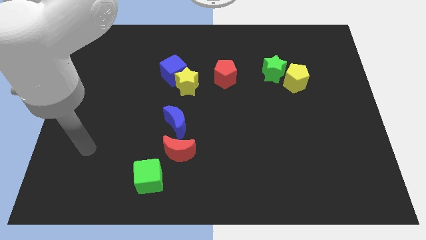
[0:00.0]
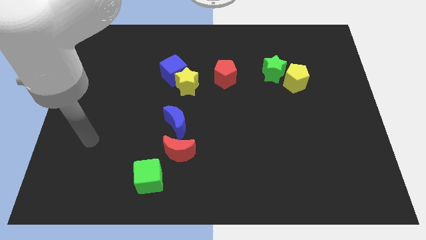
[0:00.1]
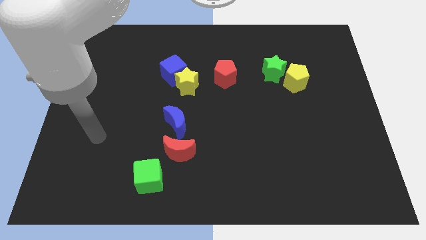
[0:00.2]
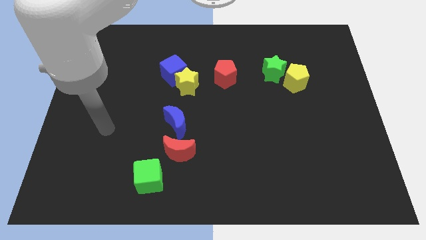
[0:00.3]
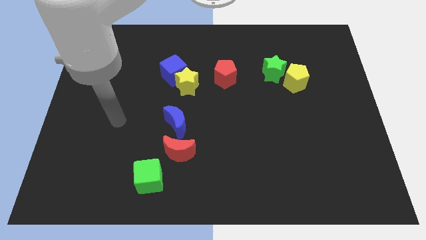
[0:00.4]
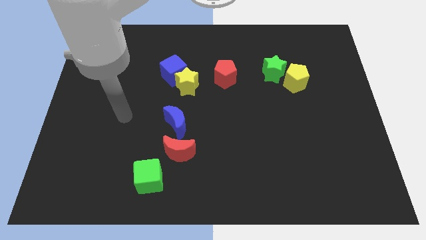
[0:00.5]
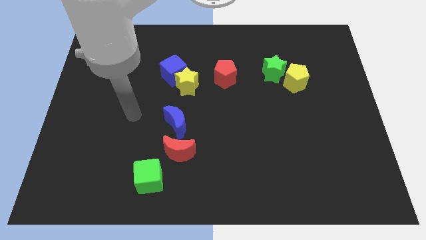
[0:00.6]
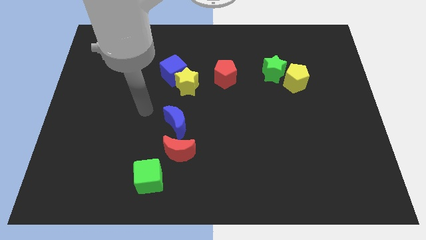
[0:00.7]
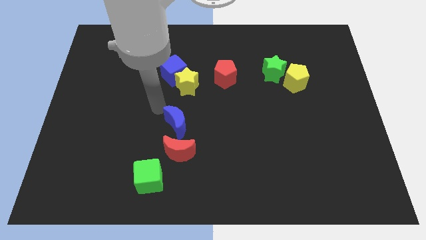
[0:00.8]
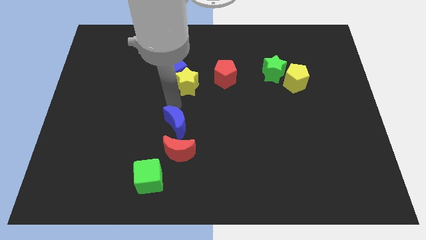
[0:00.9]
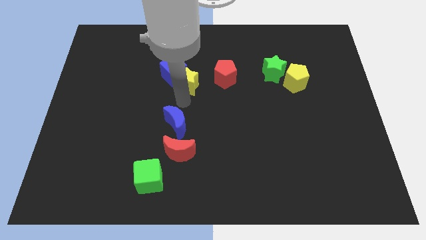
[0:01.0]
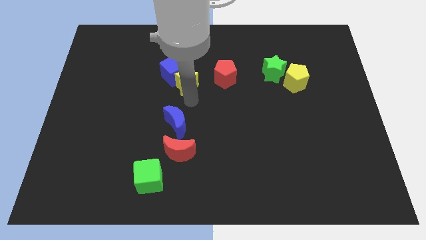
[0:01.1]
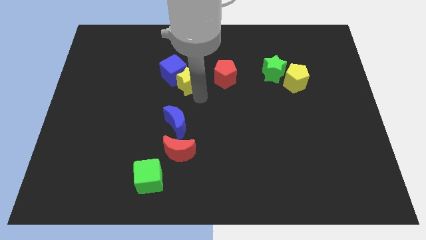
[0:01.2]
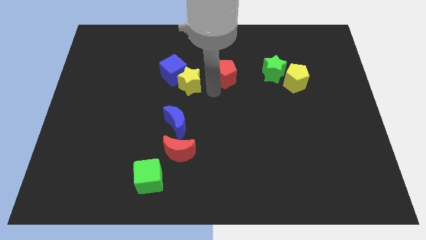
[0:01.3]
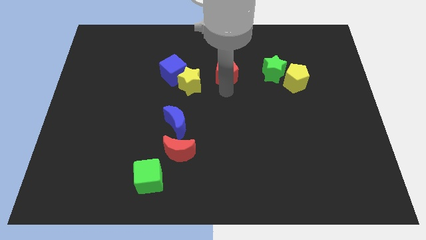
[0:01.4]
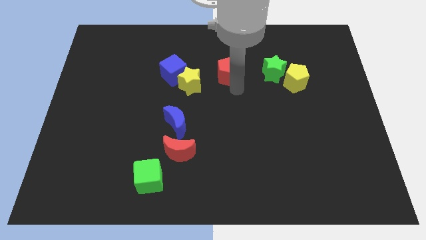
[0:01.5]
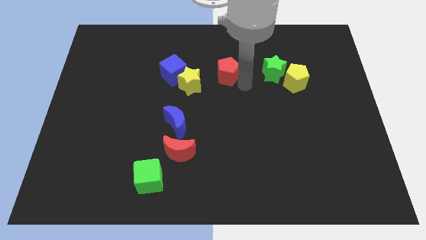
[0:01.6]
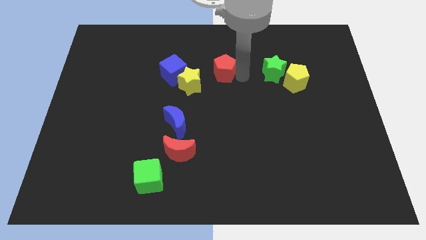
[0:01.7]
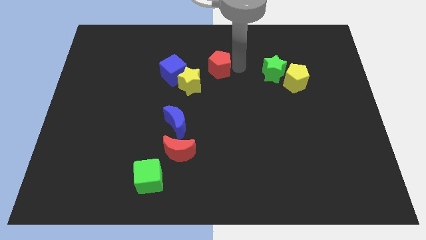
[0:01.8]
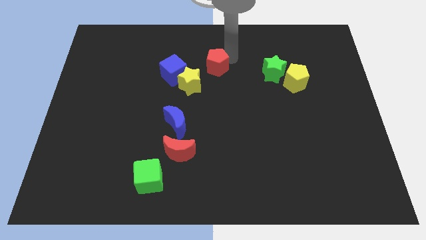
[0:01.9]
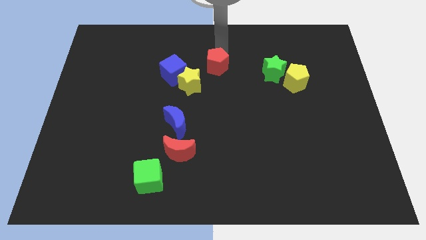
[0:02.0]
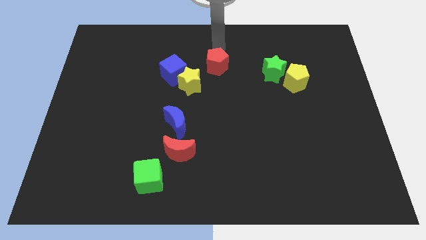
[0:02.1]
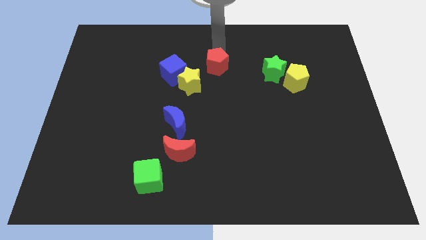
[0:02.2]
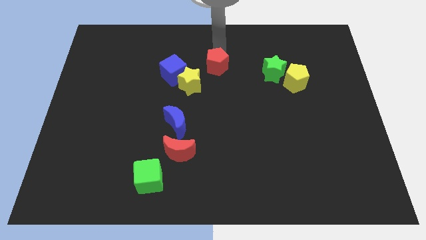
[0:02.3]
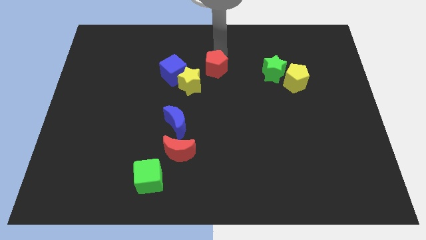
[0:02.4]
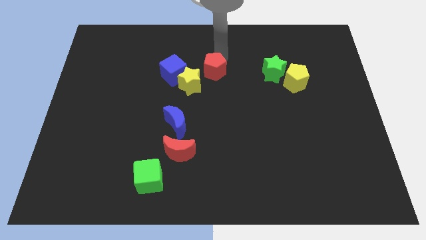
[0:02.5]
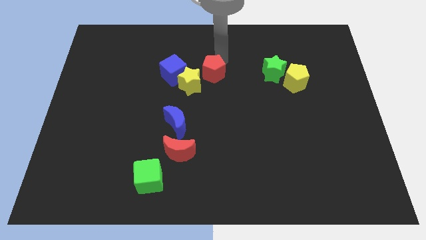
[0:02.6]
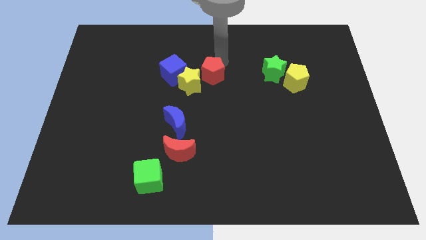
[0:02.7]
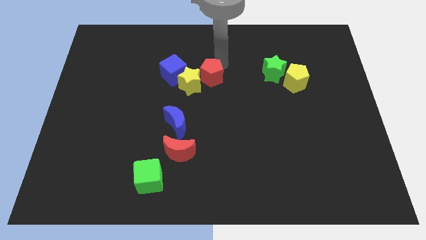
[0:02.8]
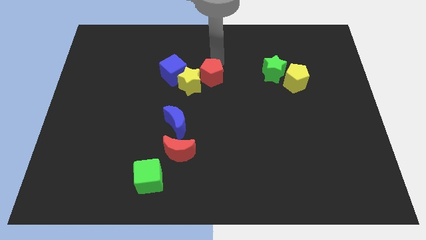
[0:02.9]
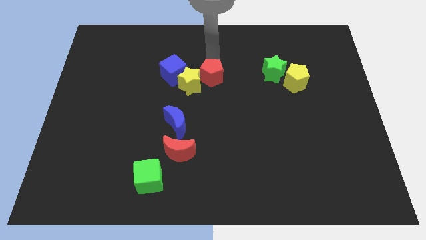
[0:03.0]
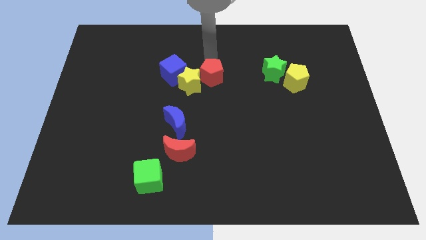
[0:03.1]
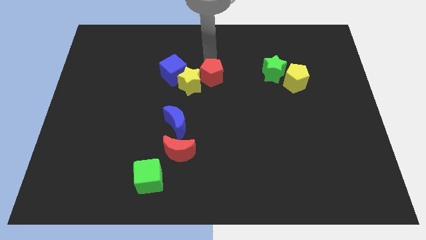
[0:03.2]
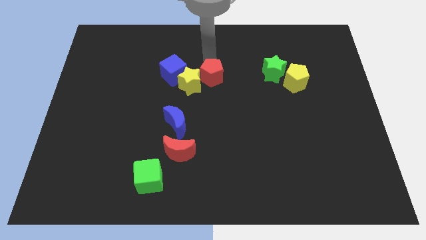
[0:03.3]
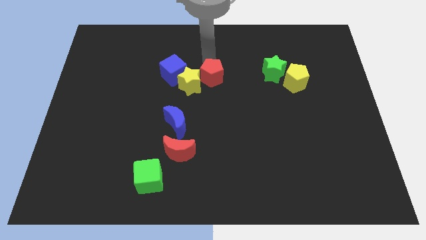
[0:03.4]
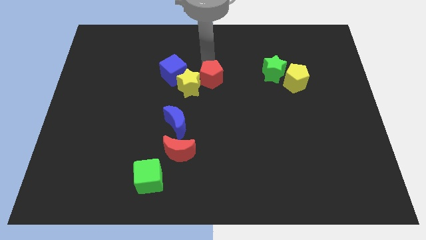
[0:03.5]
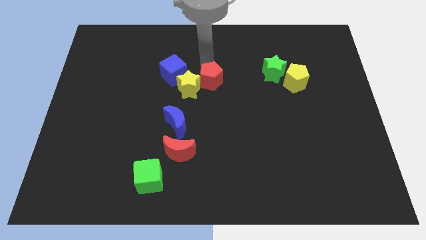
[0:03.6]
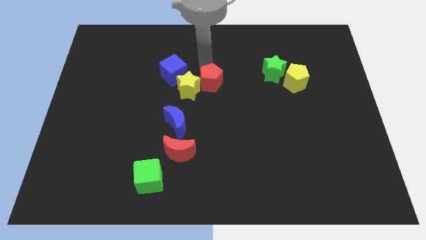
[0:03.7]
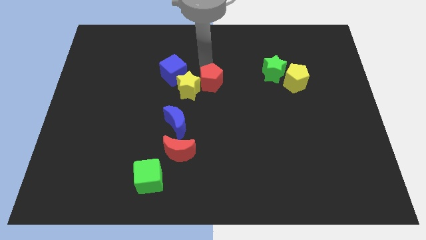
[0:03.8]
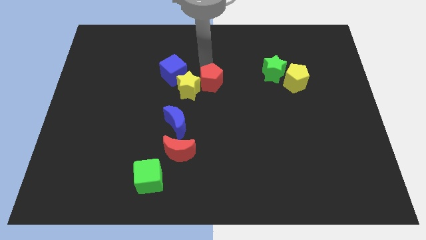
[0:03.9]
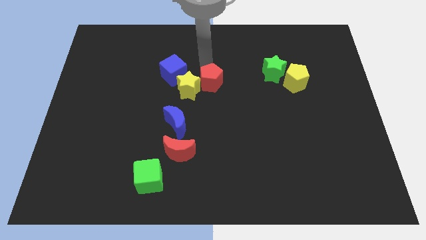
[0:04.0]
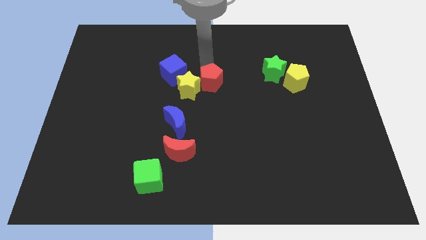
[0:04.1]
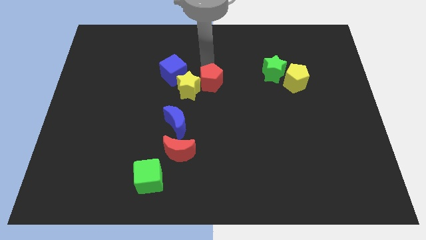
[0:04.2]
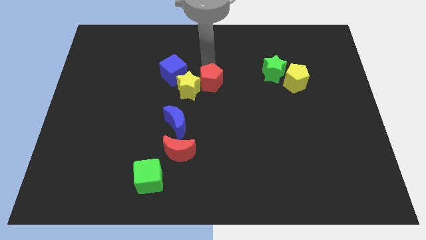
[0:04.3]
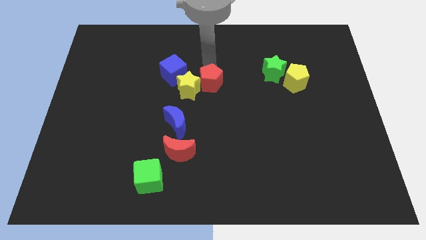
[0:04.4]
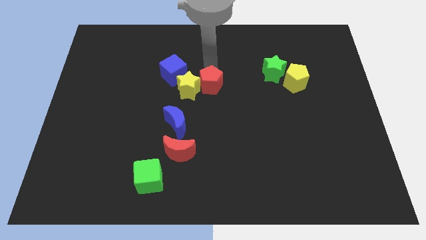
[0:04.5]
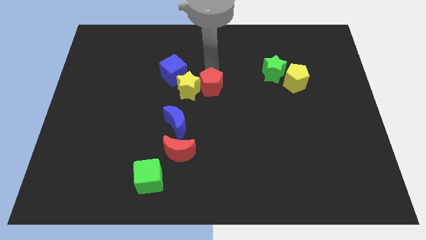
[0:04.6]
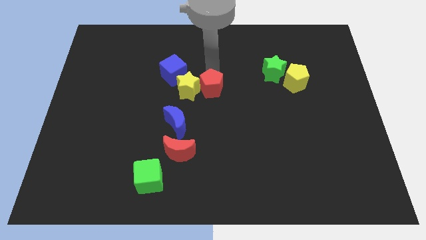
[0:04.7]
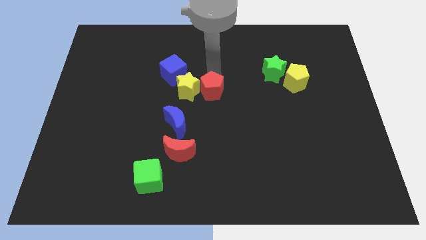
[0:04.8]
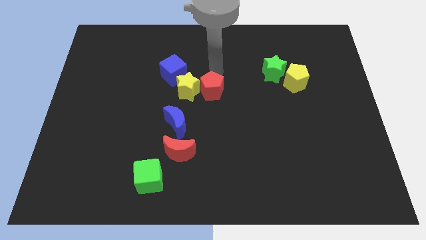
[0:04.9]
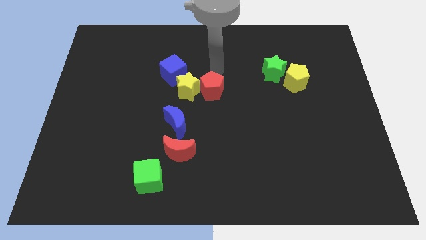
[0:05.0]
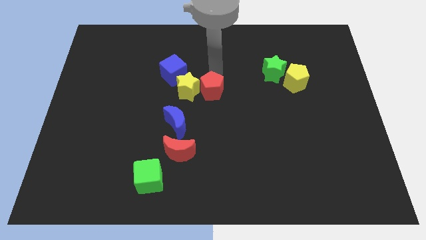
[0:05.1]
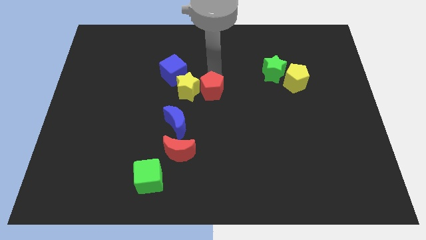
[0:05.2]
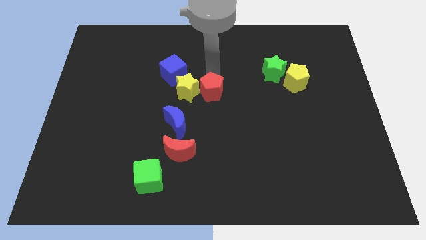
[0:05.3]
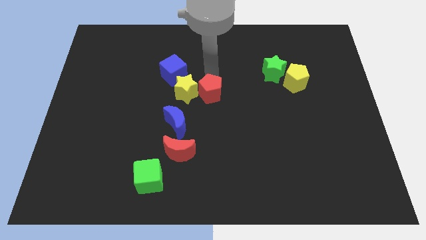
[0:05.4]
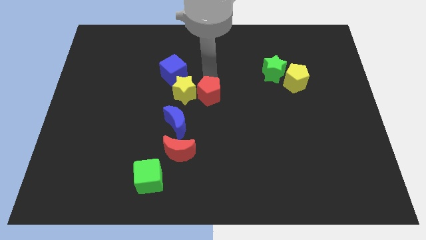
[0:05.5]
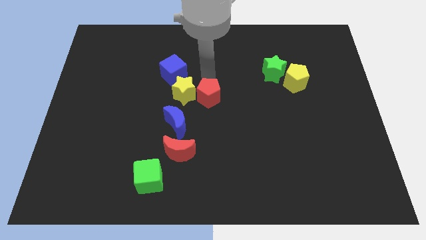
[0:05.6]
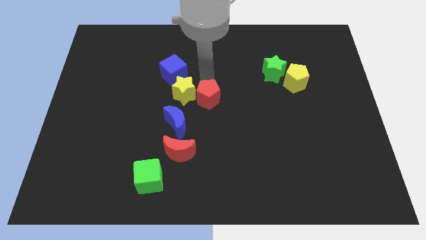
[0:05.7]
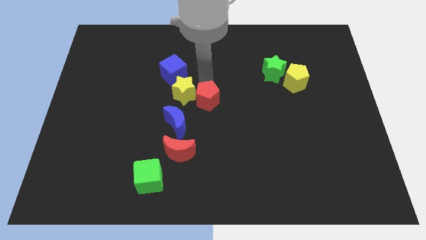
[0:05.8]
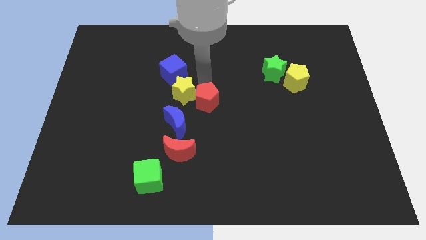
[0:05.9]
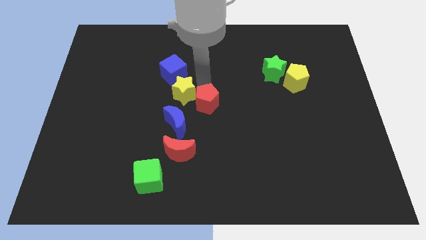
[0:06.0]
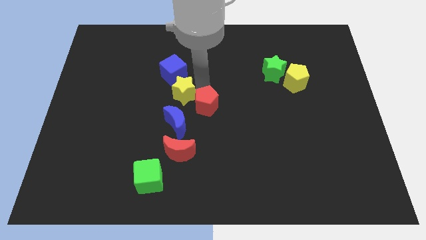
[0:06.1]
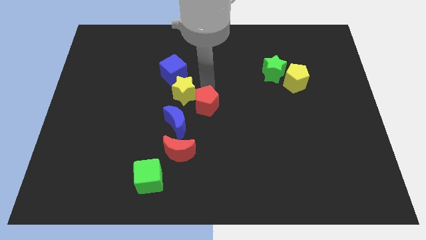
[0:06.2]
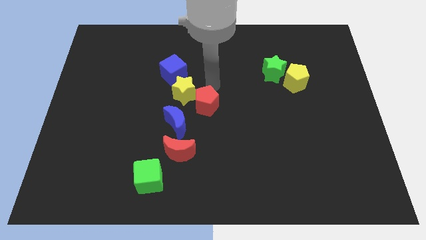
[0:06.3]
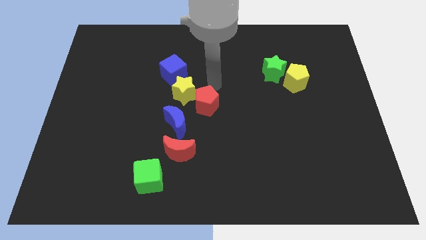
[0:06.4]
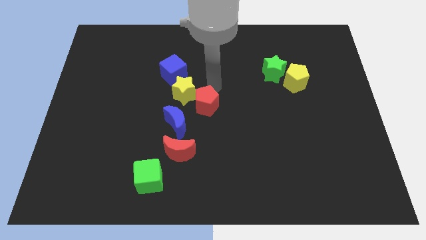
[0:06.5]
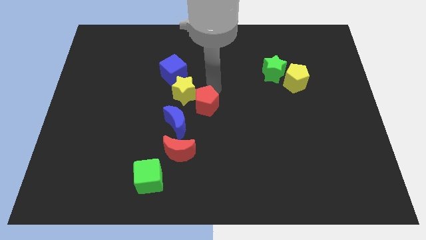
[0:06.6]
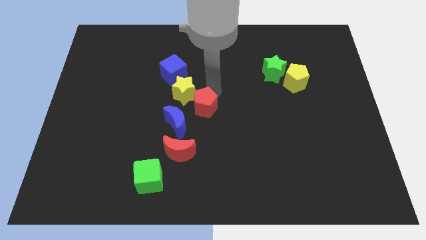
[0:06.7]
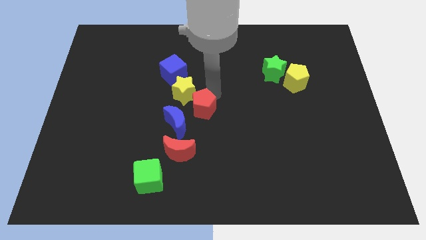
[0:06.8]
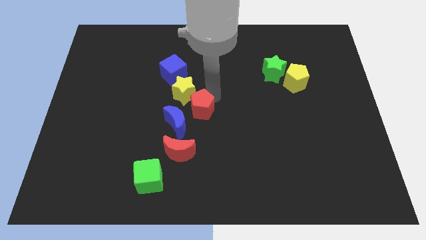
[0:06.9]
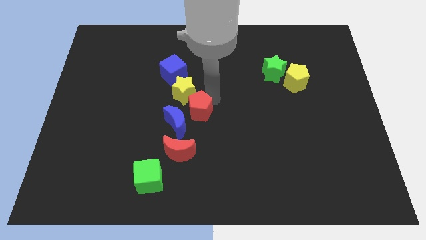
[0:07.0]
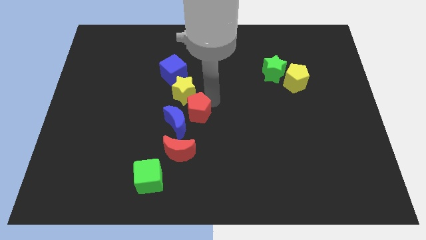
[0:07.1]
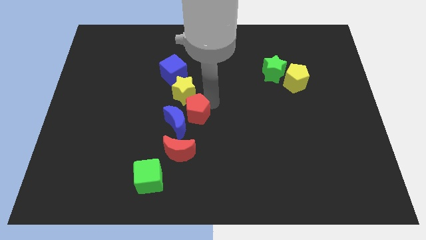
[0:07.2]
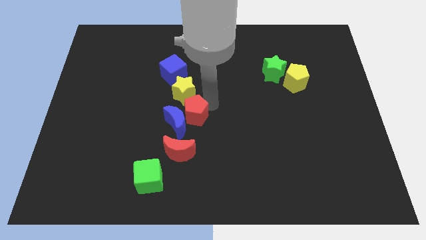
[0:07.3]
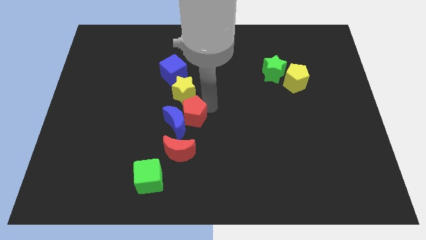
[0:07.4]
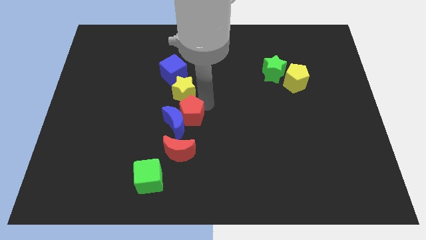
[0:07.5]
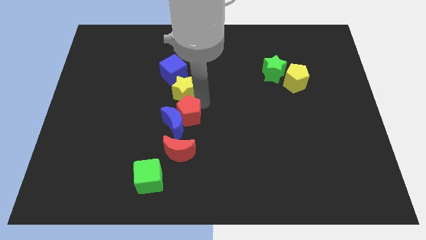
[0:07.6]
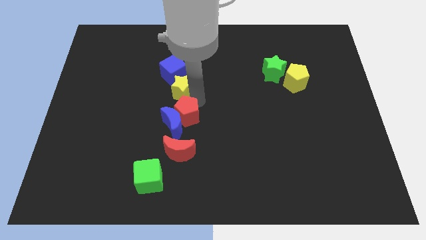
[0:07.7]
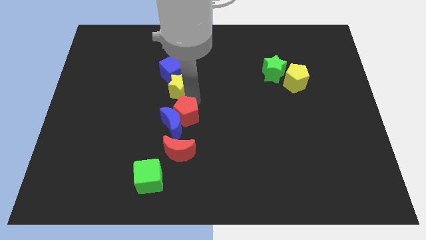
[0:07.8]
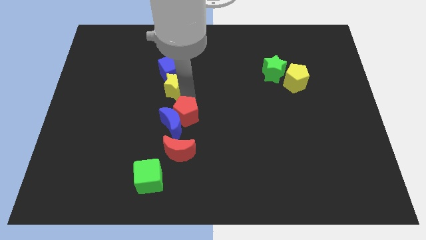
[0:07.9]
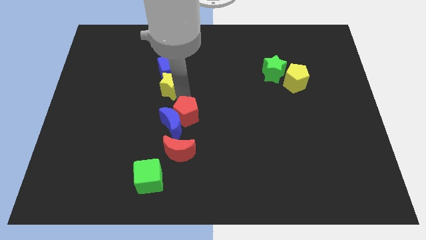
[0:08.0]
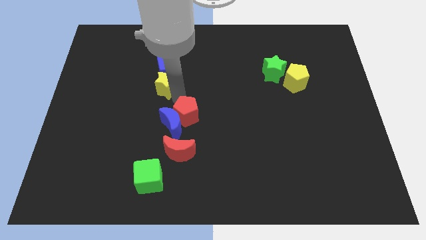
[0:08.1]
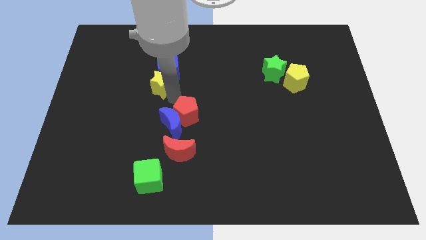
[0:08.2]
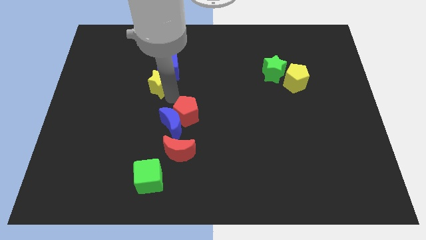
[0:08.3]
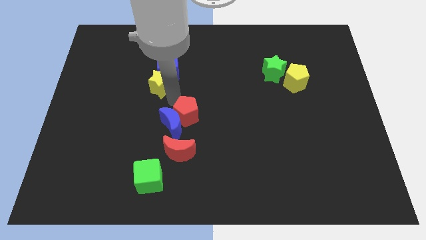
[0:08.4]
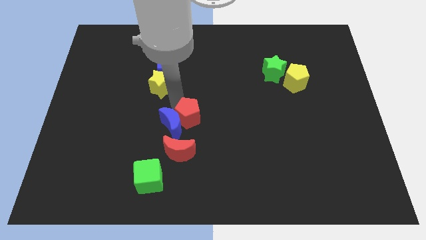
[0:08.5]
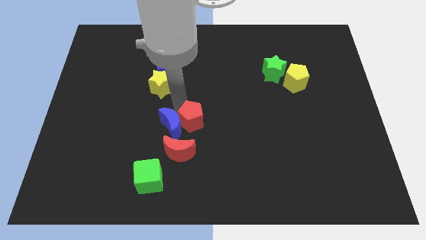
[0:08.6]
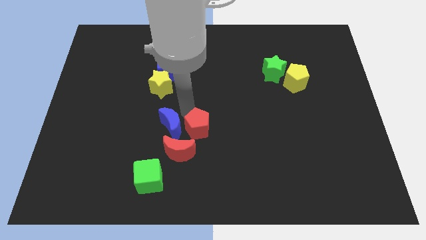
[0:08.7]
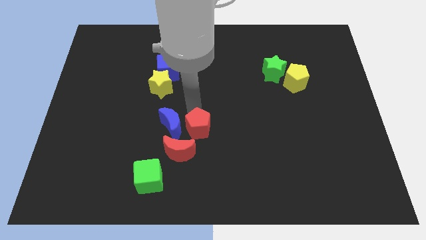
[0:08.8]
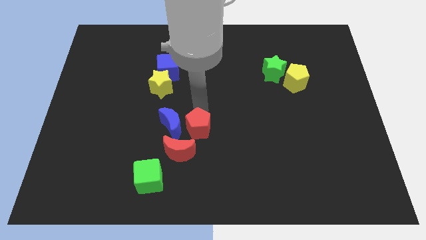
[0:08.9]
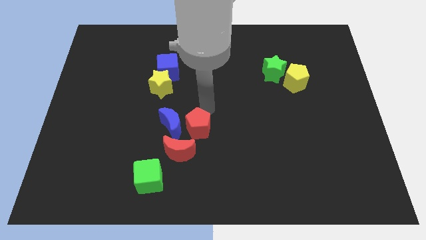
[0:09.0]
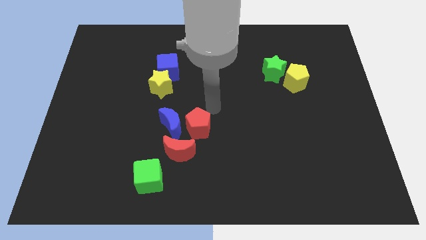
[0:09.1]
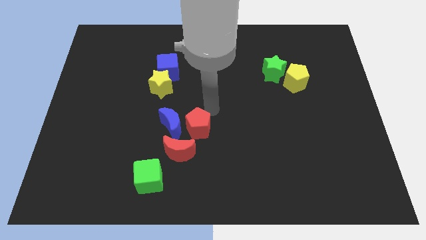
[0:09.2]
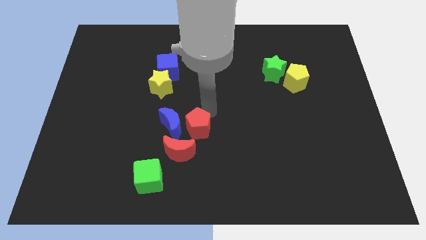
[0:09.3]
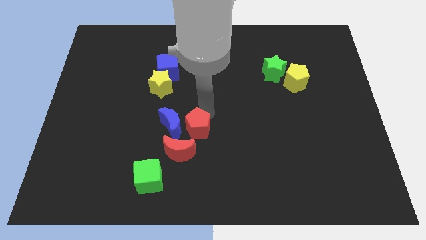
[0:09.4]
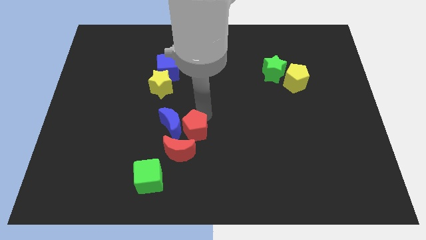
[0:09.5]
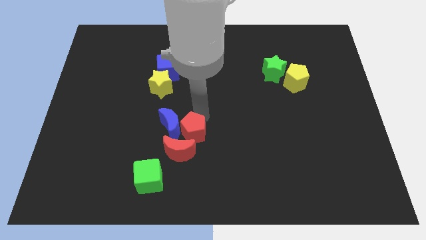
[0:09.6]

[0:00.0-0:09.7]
slide the red pentagon close to the red moon
